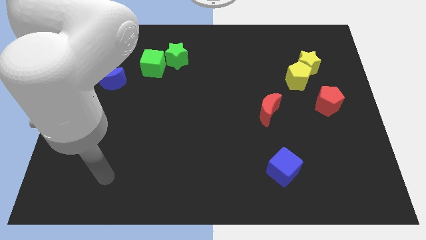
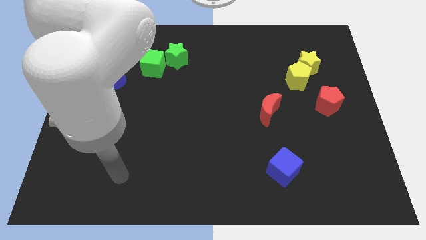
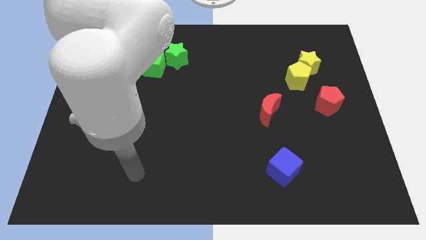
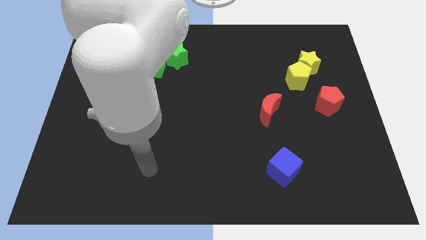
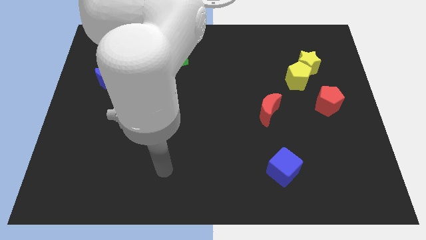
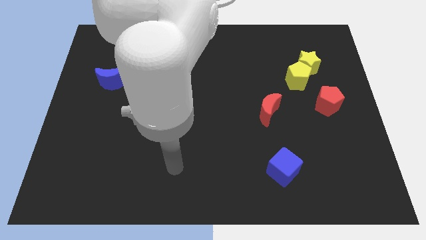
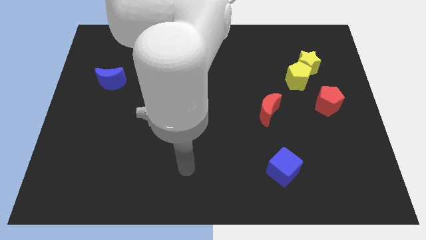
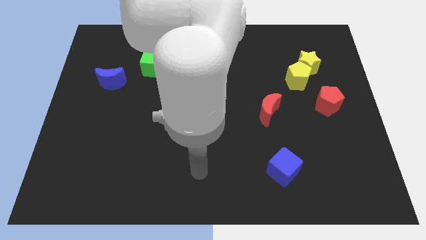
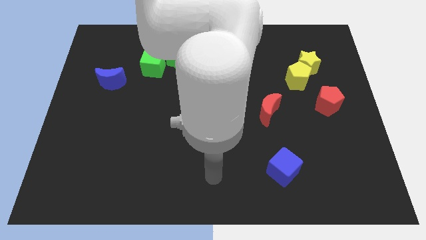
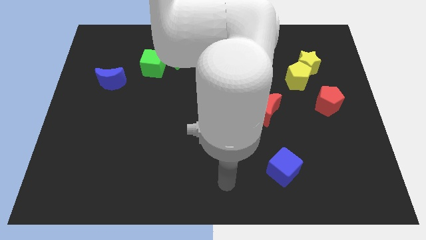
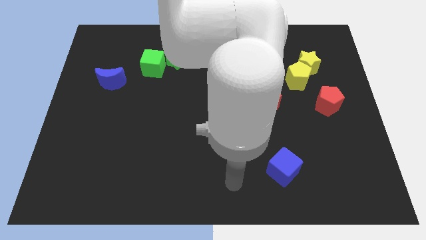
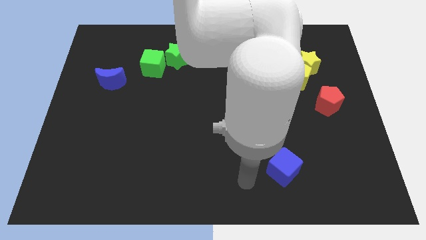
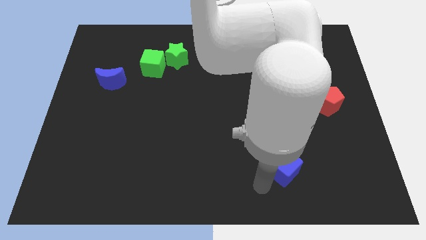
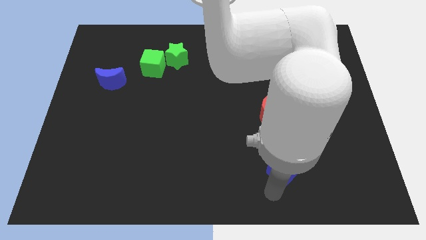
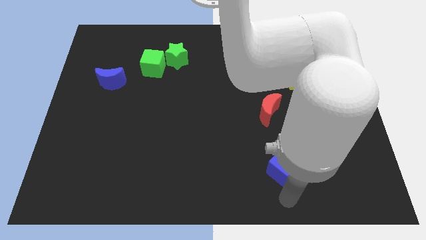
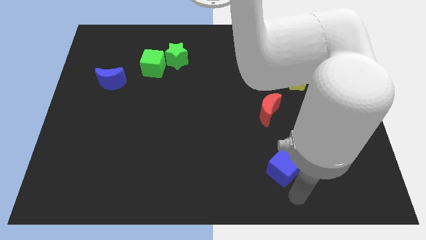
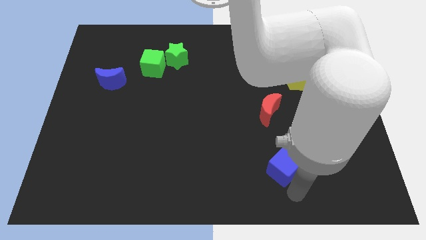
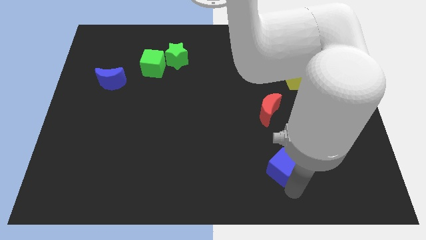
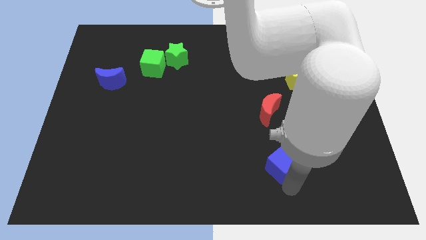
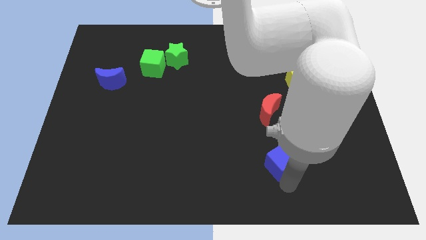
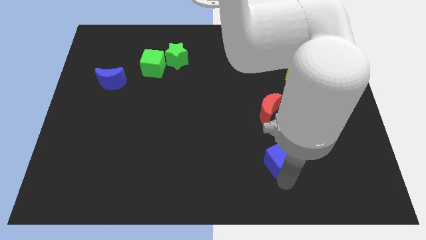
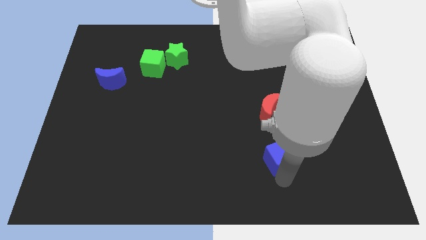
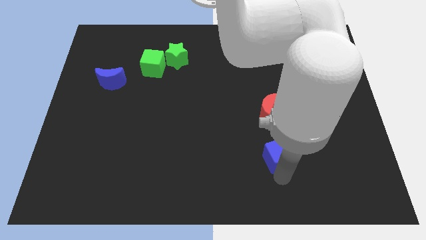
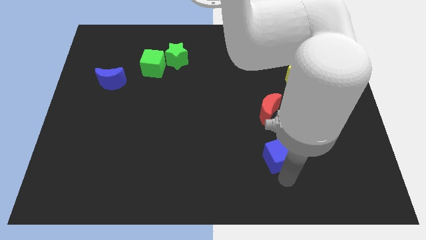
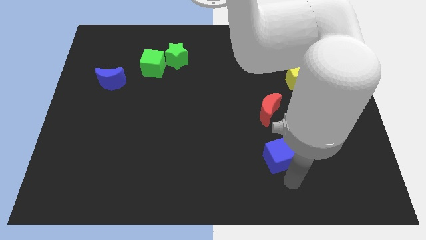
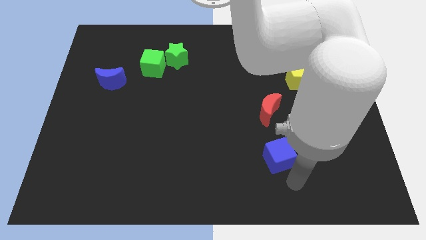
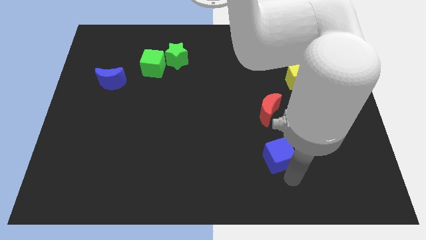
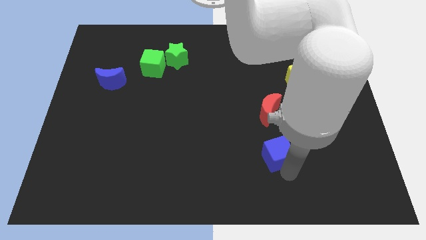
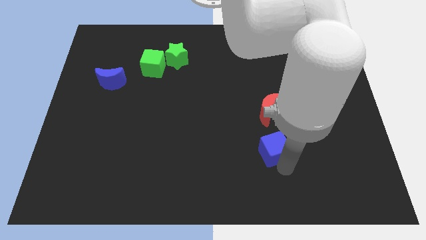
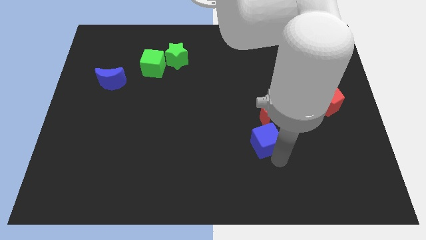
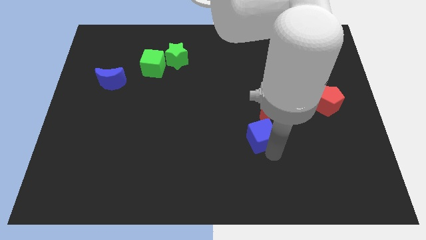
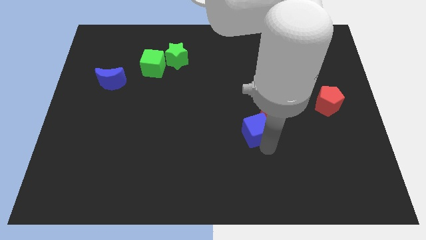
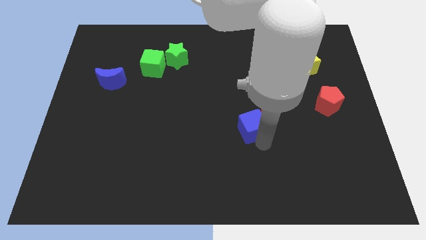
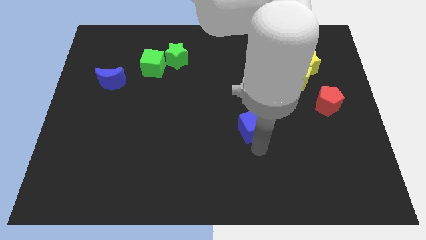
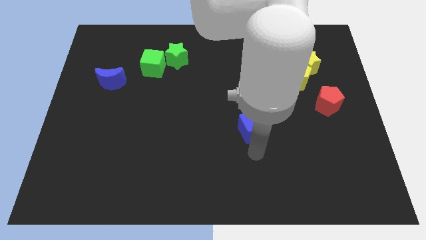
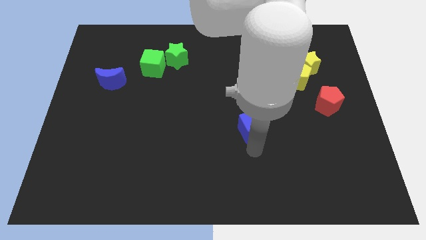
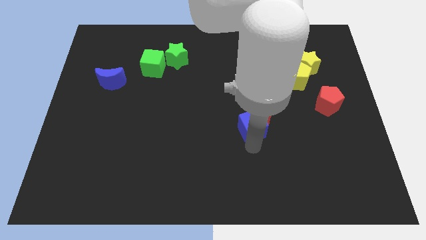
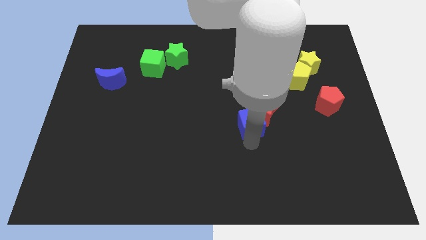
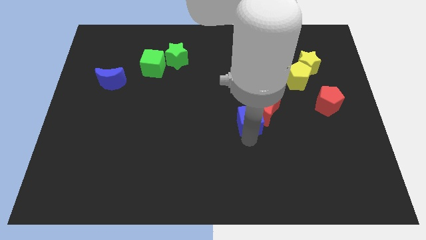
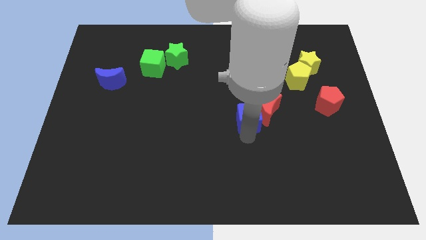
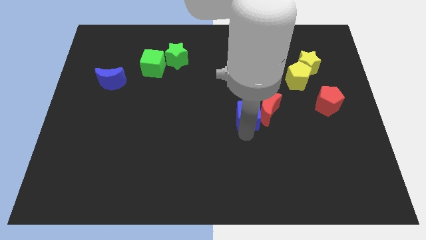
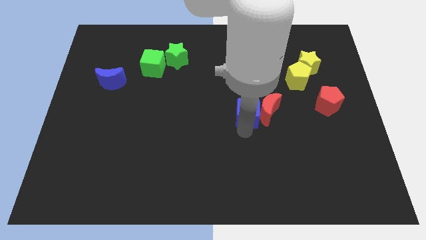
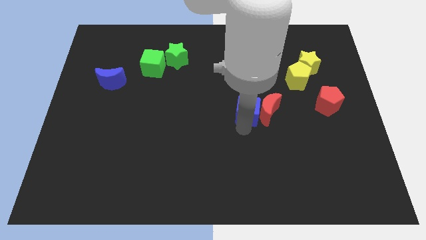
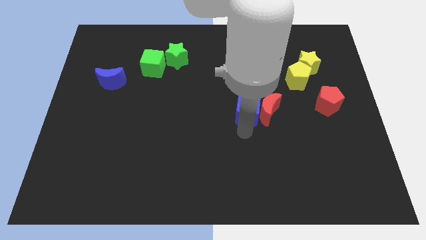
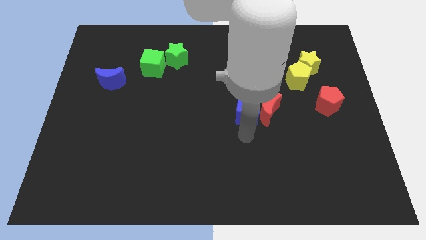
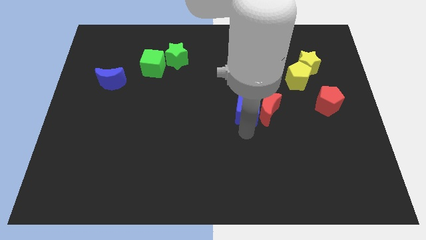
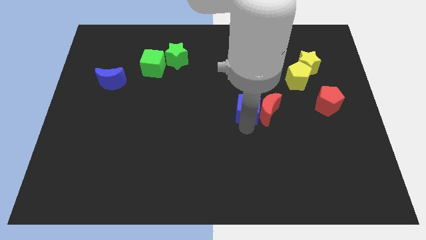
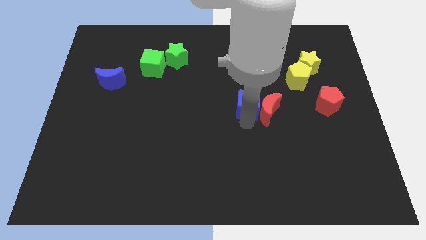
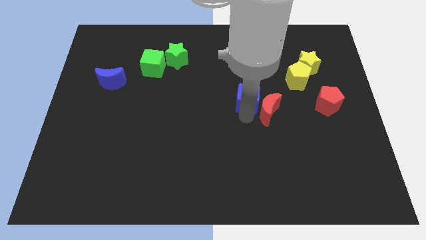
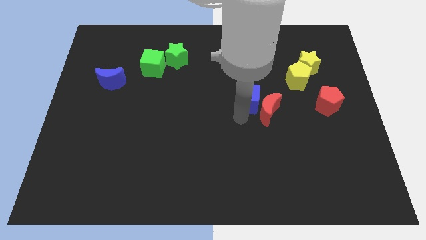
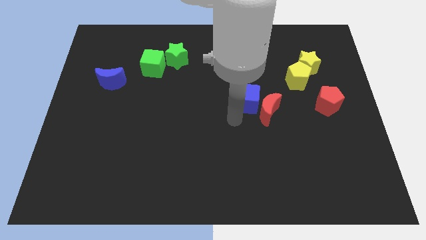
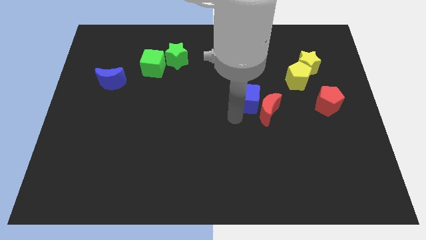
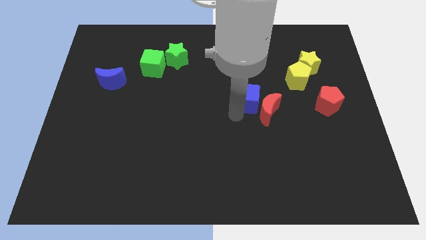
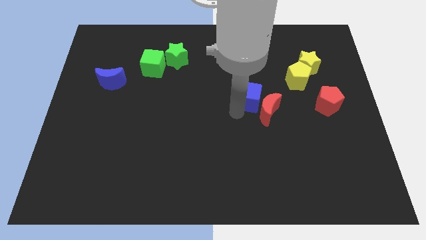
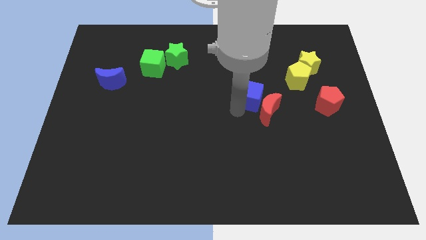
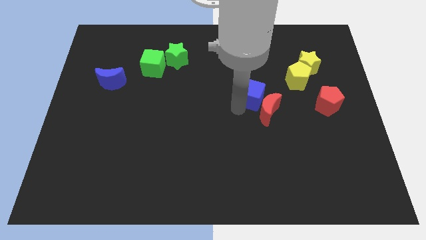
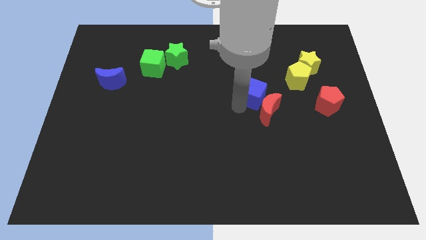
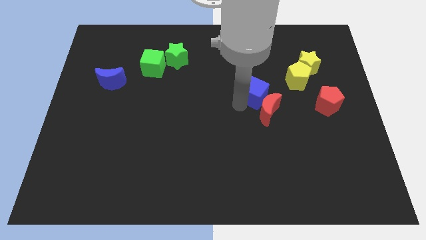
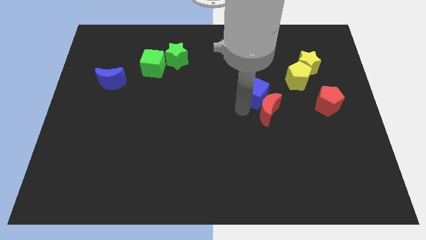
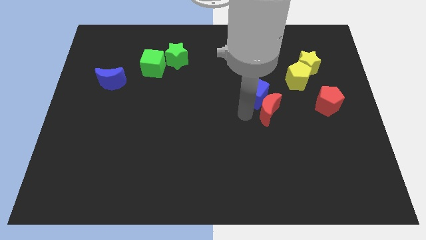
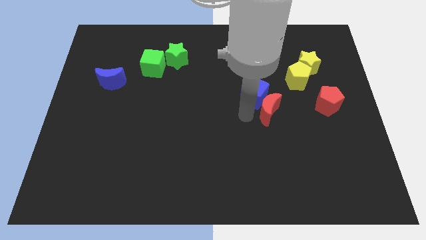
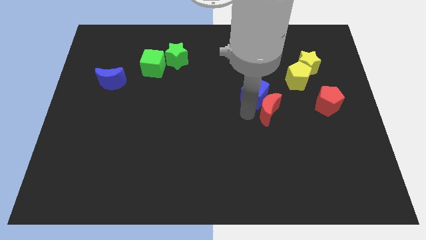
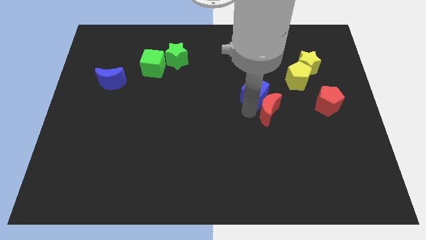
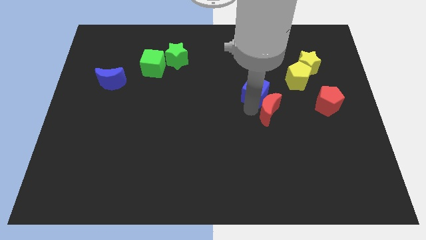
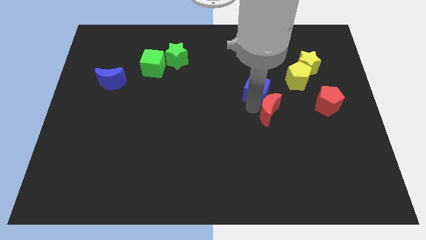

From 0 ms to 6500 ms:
slide the blue cube upwards

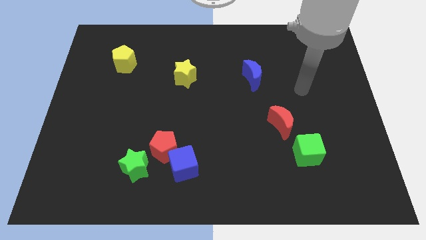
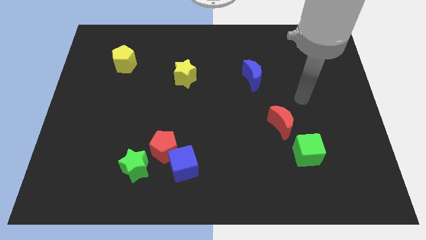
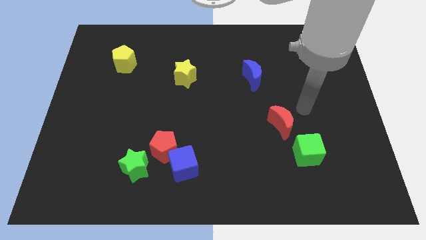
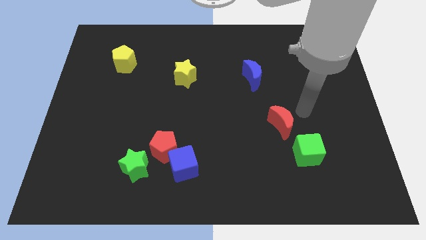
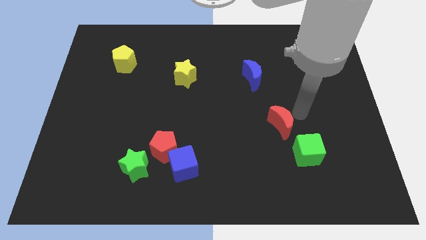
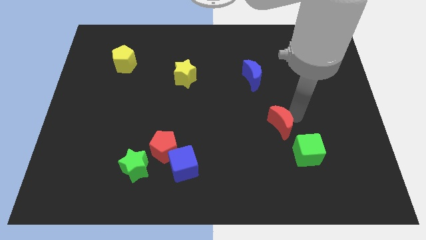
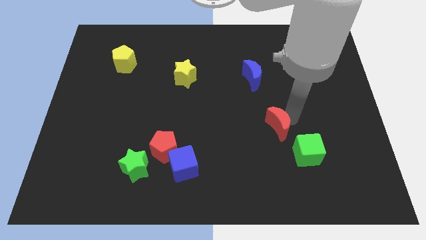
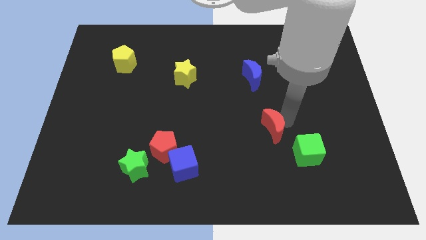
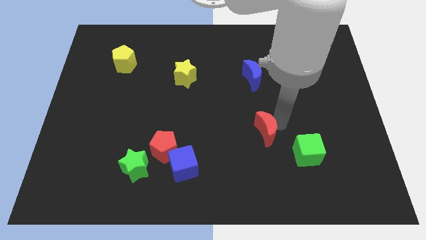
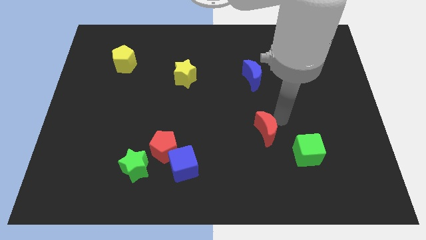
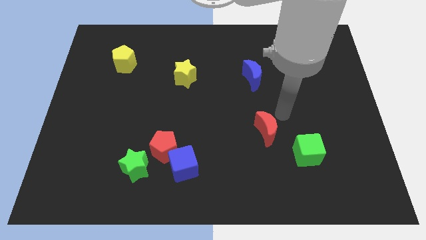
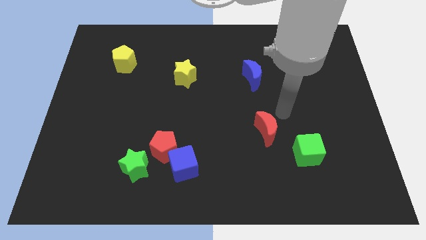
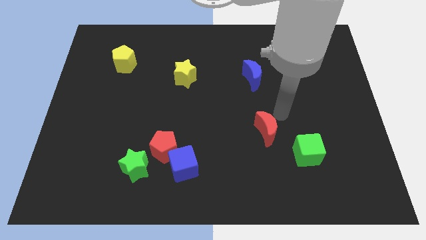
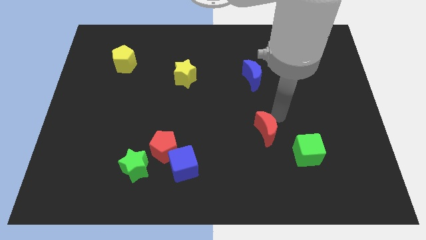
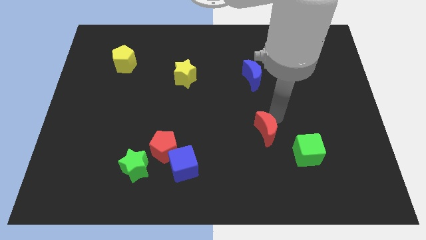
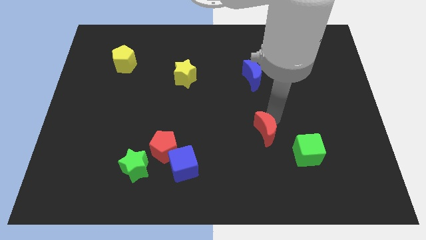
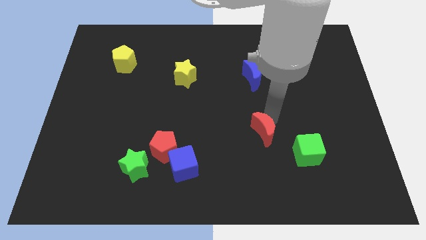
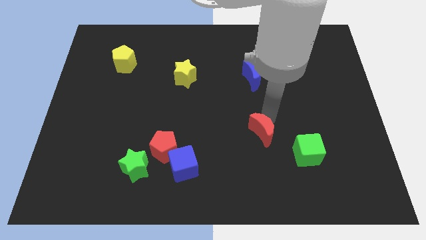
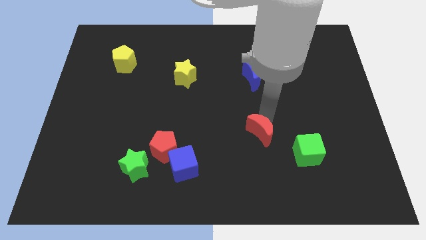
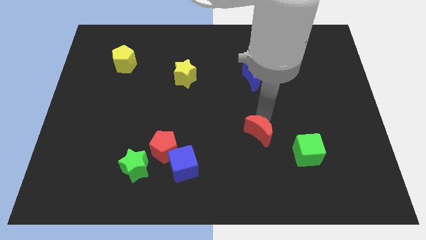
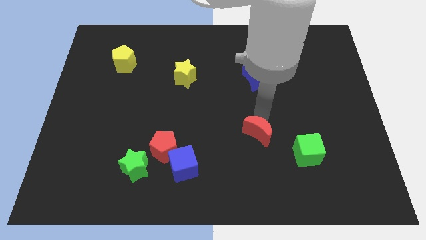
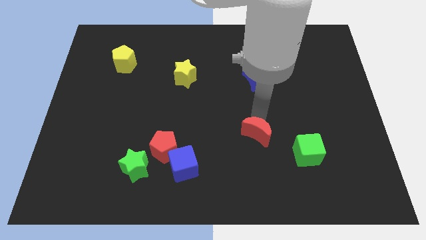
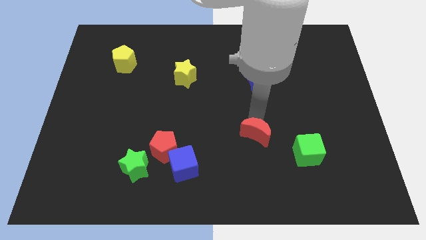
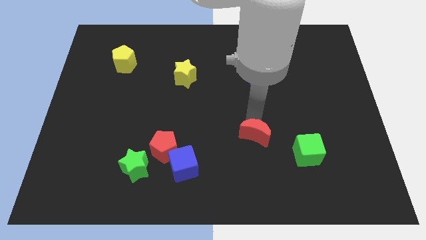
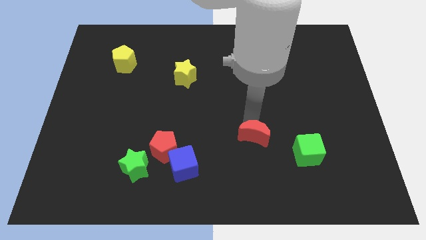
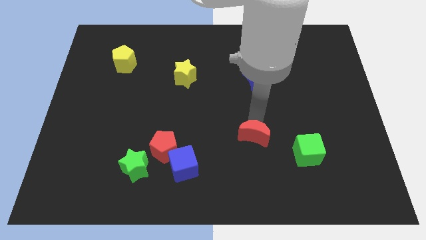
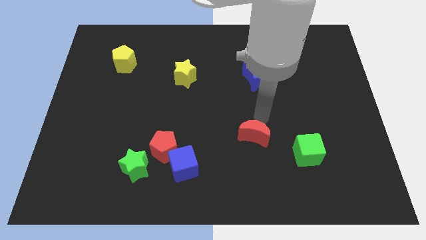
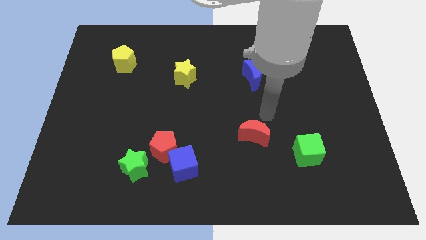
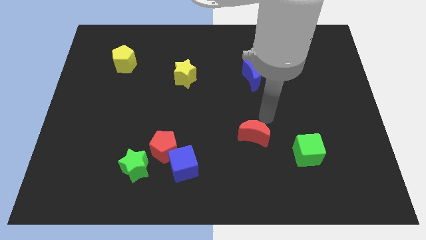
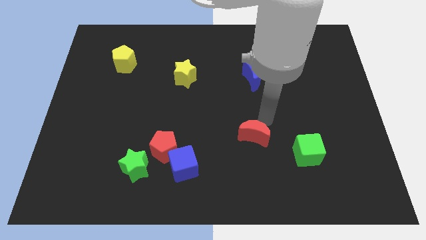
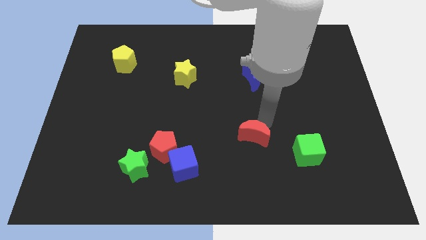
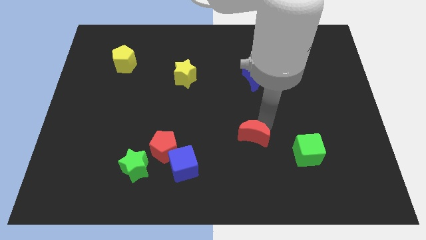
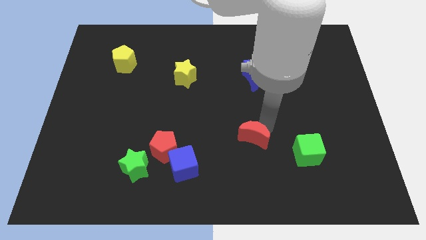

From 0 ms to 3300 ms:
slightly push the red moon down and to the left
